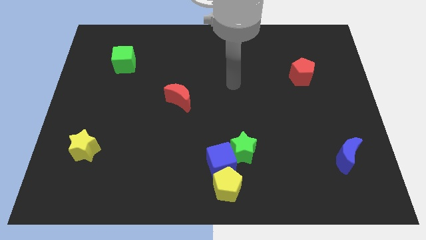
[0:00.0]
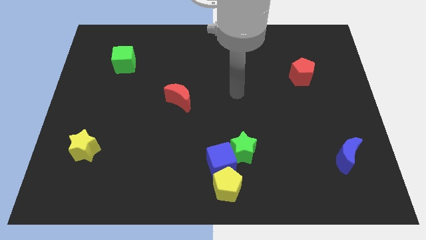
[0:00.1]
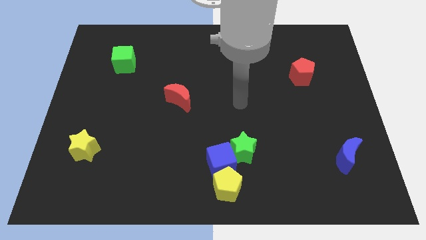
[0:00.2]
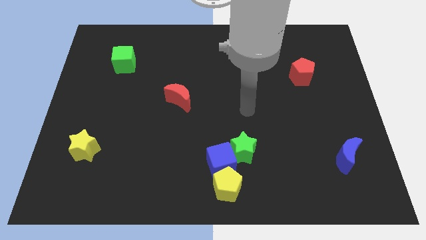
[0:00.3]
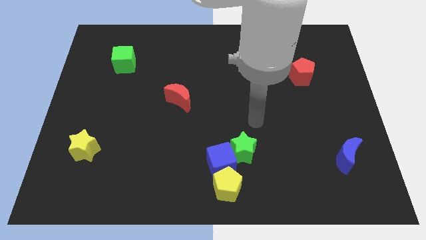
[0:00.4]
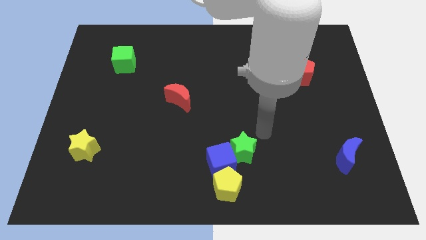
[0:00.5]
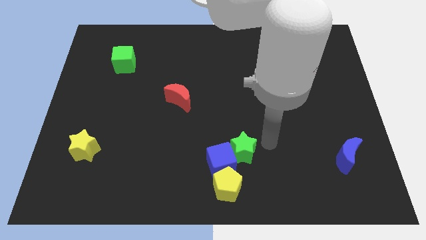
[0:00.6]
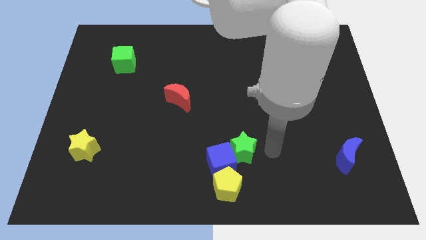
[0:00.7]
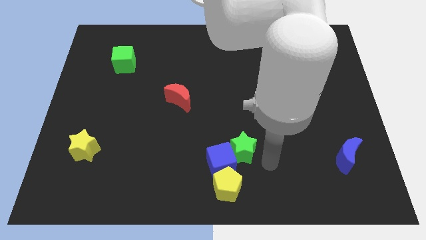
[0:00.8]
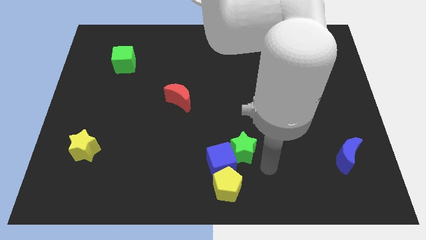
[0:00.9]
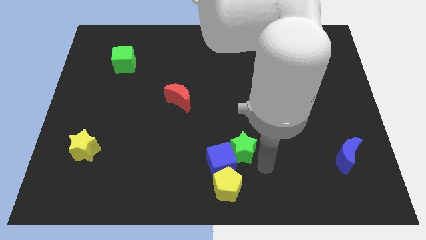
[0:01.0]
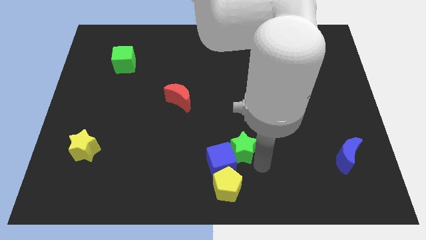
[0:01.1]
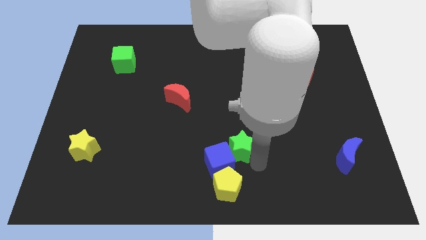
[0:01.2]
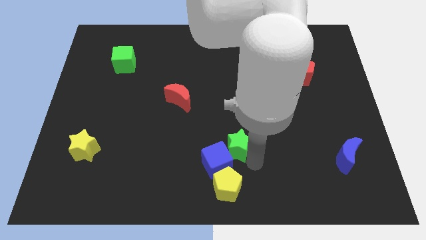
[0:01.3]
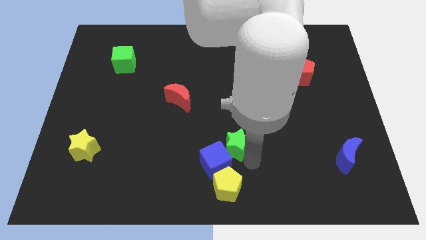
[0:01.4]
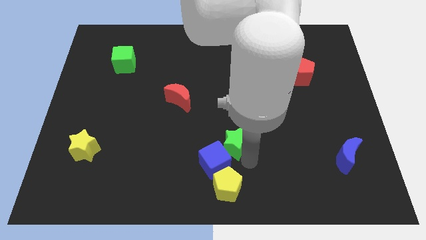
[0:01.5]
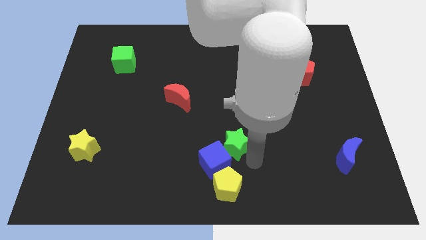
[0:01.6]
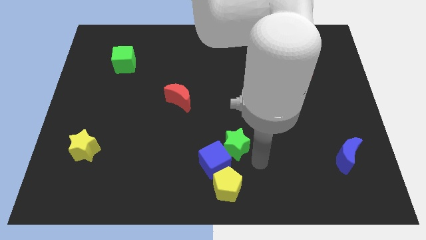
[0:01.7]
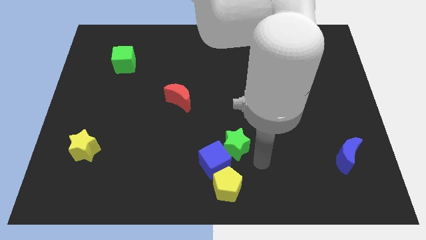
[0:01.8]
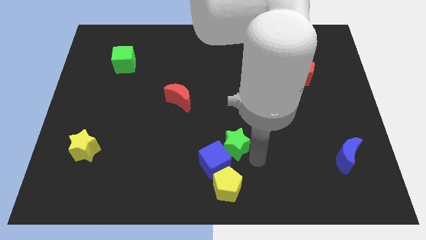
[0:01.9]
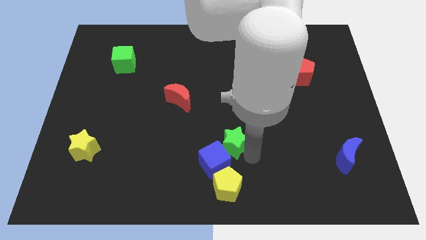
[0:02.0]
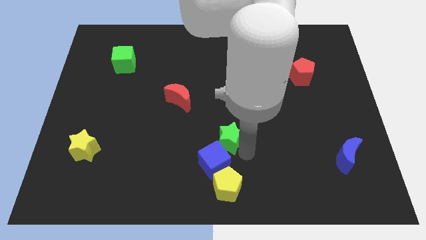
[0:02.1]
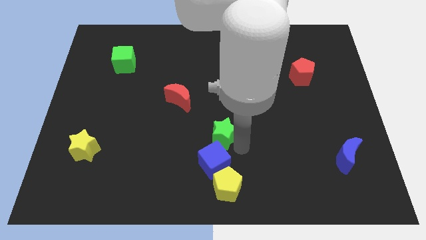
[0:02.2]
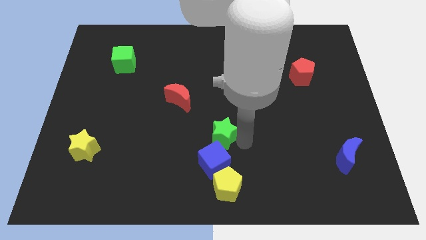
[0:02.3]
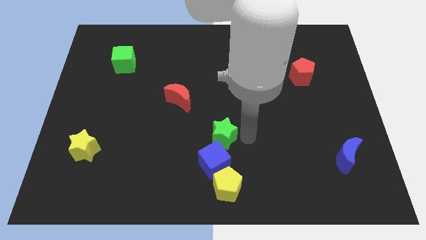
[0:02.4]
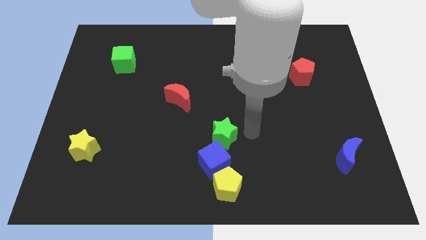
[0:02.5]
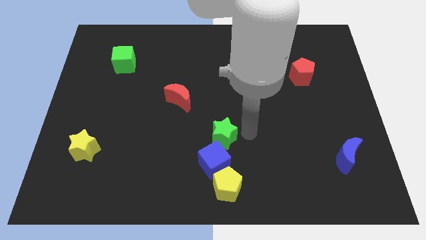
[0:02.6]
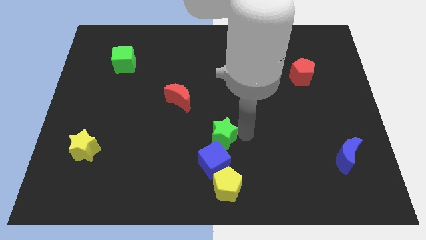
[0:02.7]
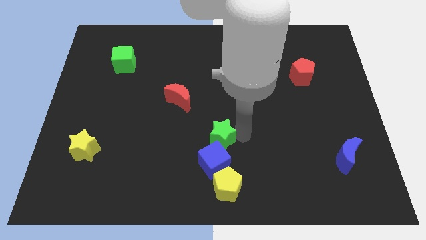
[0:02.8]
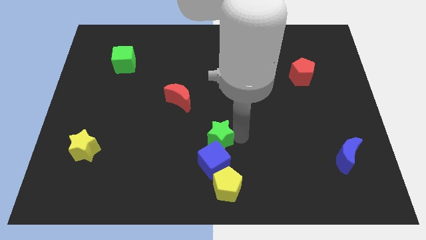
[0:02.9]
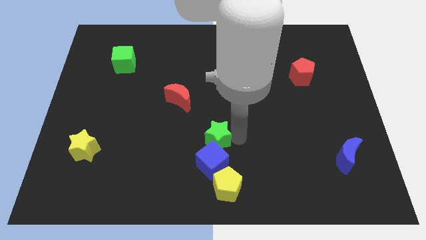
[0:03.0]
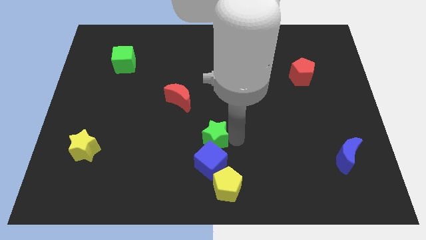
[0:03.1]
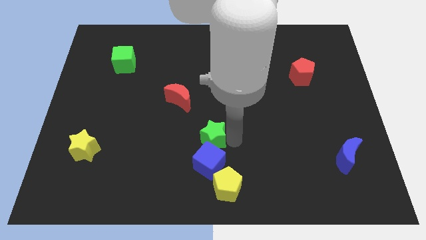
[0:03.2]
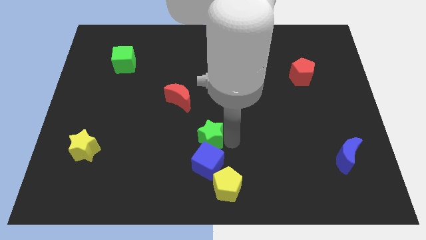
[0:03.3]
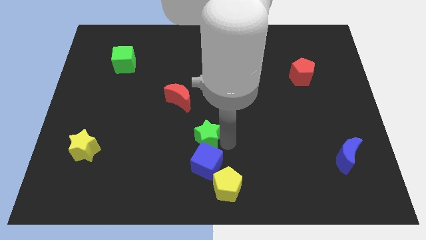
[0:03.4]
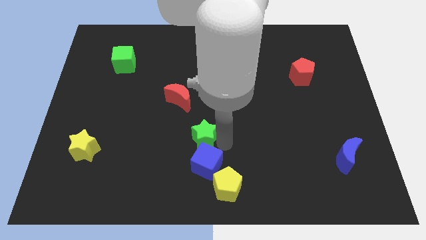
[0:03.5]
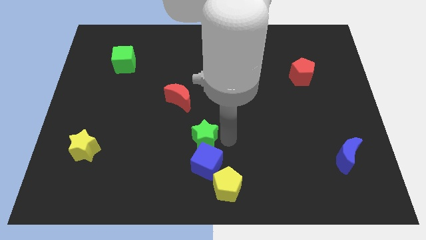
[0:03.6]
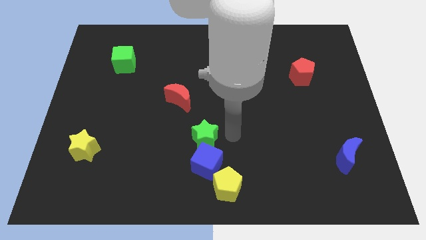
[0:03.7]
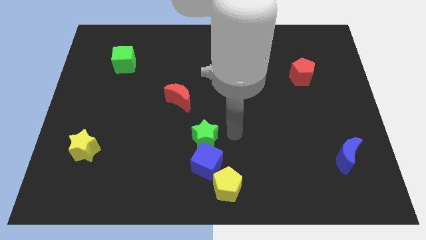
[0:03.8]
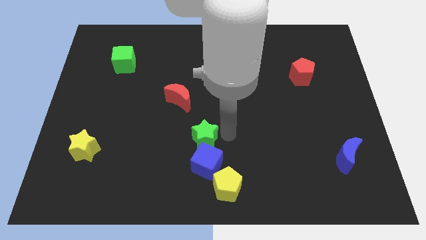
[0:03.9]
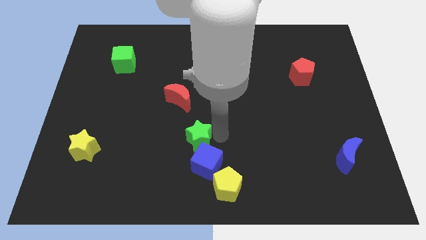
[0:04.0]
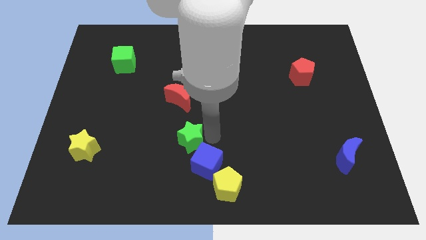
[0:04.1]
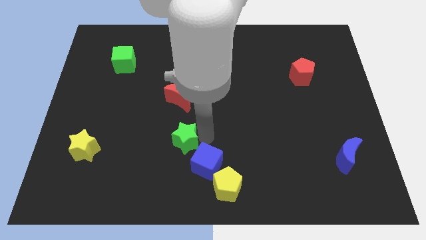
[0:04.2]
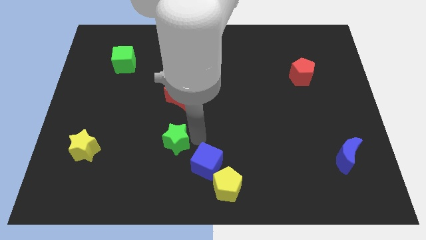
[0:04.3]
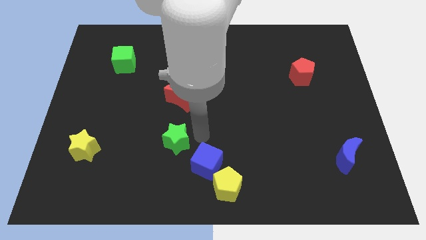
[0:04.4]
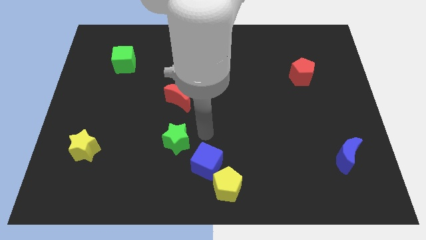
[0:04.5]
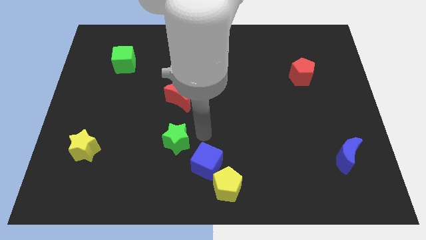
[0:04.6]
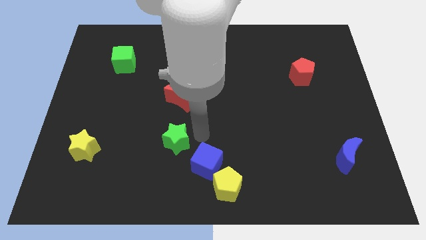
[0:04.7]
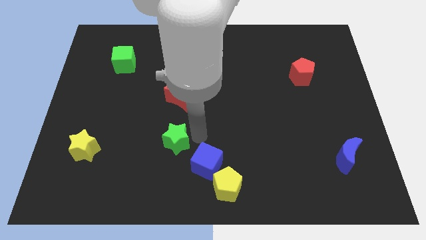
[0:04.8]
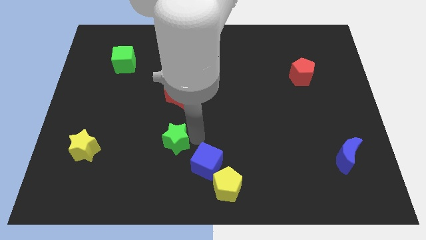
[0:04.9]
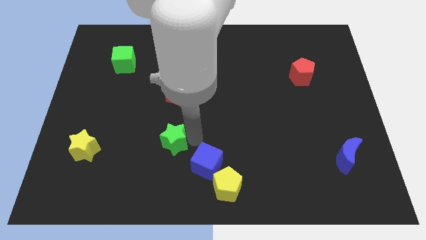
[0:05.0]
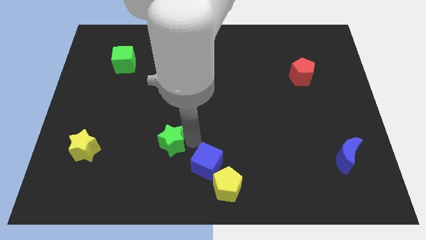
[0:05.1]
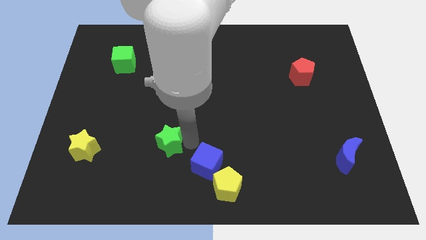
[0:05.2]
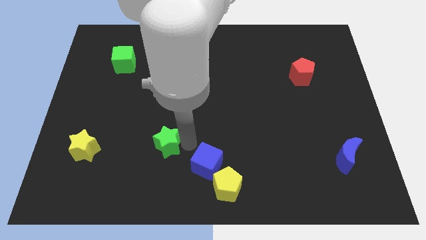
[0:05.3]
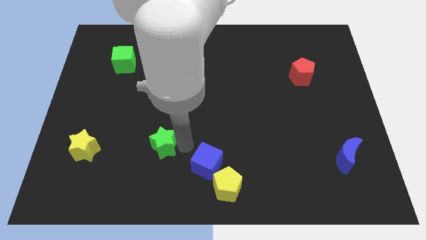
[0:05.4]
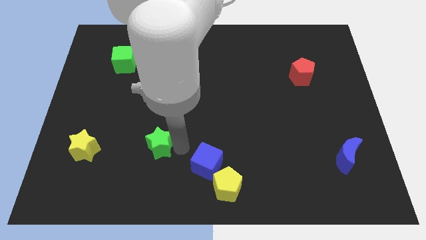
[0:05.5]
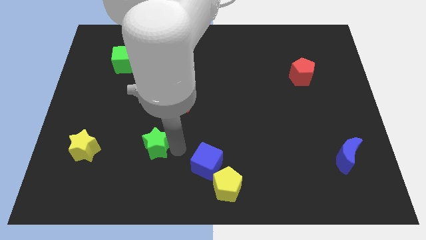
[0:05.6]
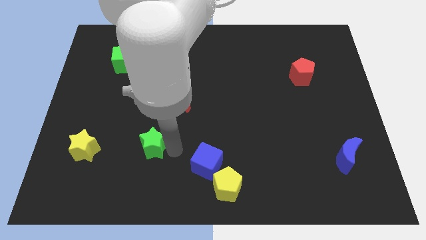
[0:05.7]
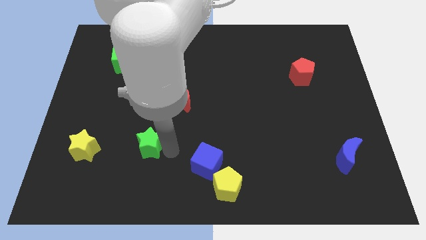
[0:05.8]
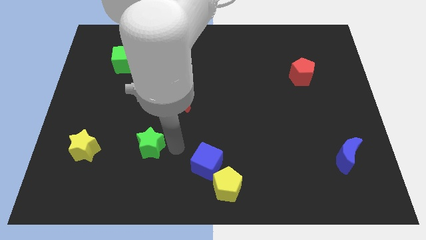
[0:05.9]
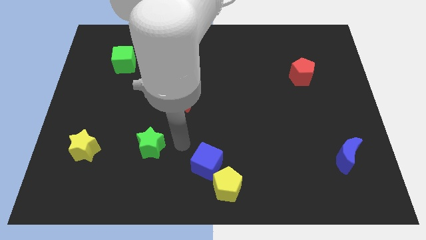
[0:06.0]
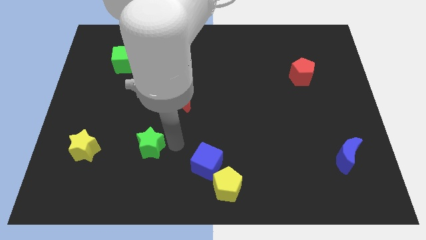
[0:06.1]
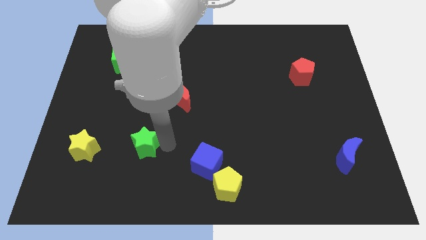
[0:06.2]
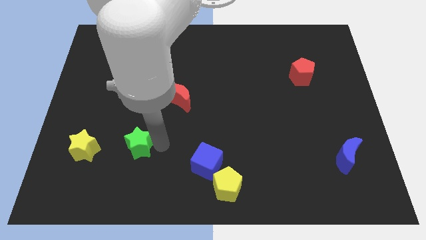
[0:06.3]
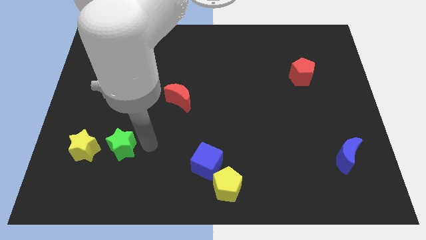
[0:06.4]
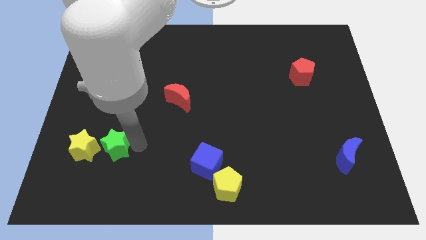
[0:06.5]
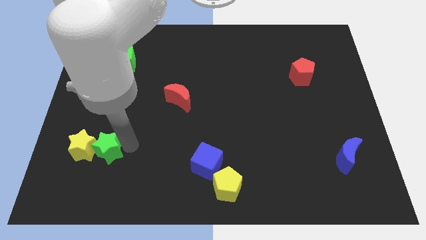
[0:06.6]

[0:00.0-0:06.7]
slide the green star close to the yellow star

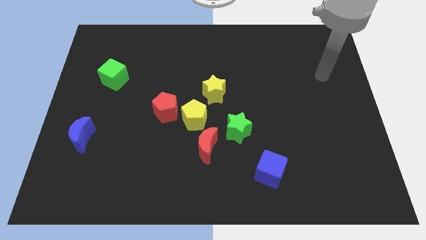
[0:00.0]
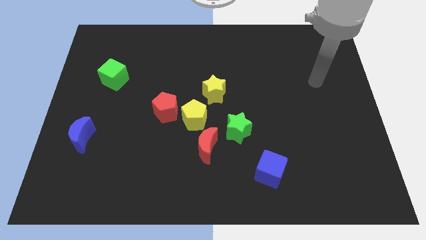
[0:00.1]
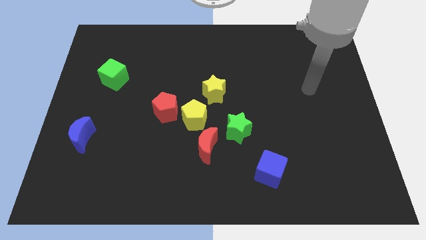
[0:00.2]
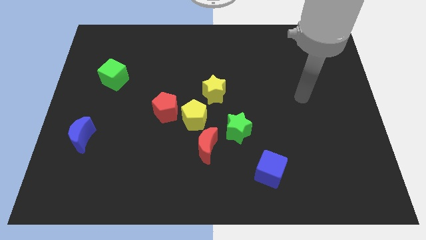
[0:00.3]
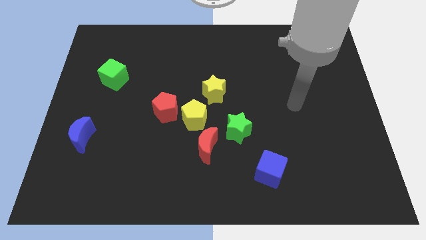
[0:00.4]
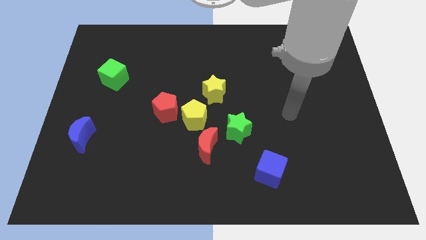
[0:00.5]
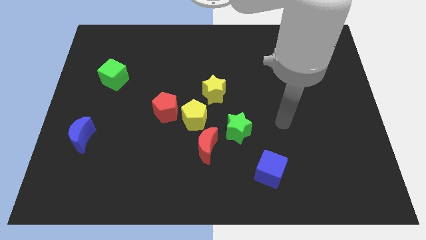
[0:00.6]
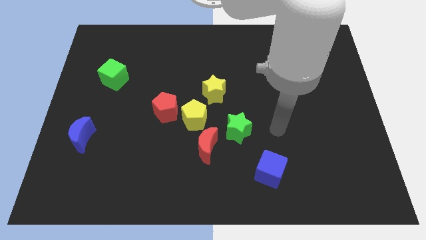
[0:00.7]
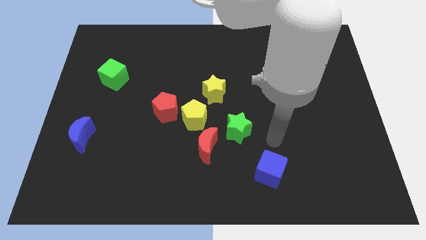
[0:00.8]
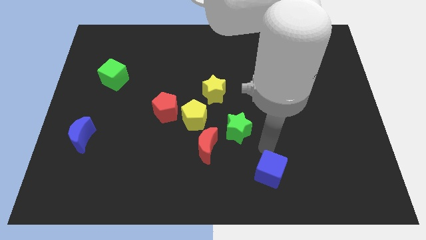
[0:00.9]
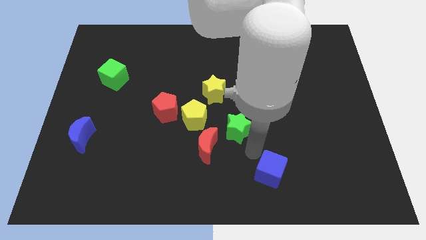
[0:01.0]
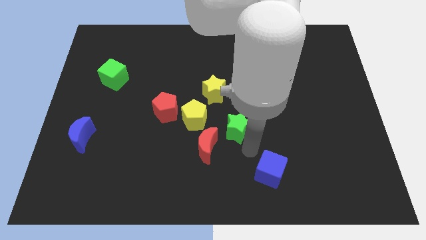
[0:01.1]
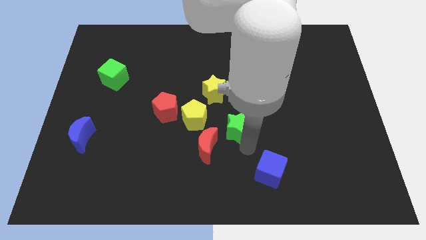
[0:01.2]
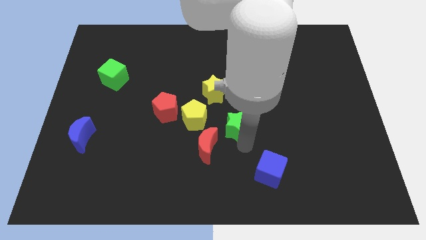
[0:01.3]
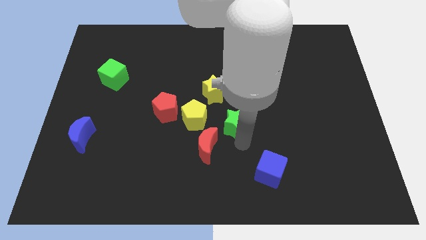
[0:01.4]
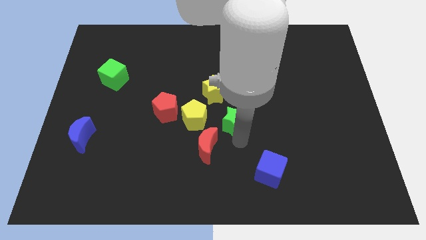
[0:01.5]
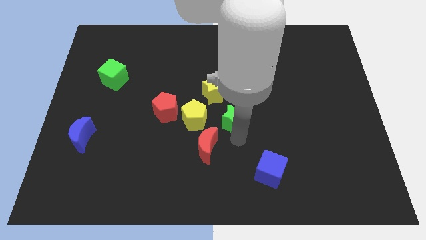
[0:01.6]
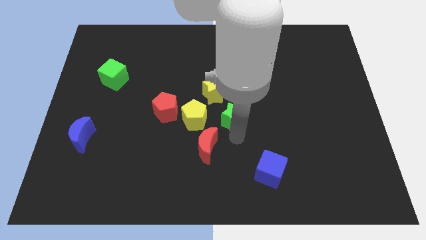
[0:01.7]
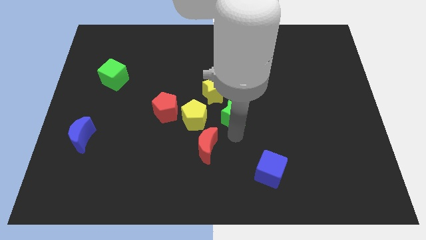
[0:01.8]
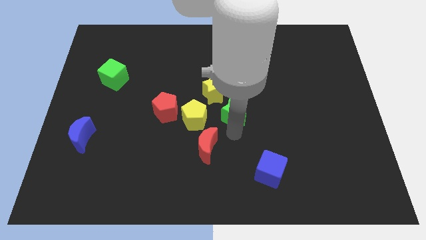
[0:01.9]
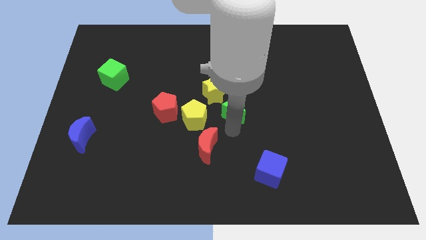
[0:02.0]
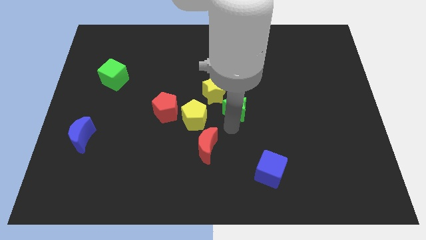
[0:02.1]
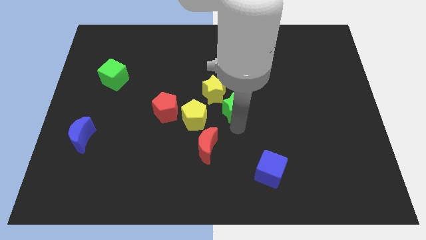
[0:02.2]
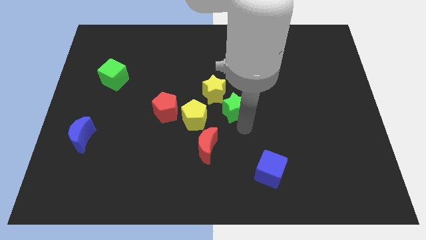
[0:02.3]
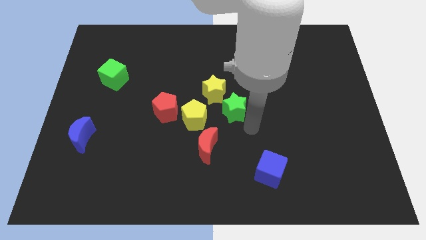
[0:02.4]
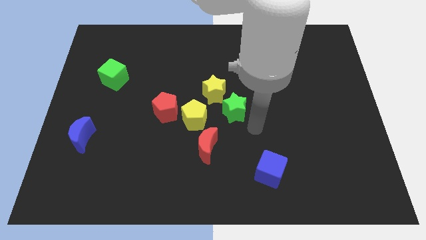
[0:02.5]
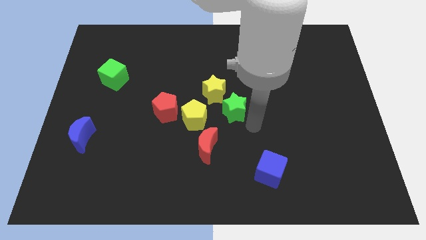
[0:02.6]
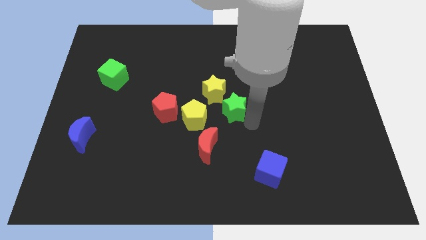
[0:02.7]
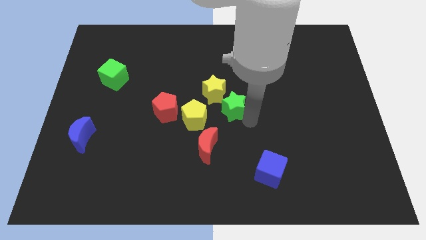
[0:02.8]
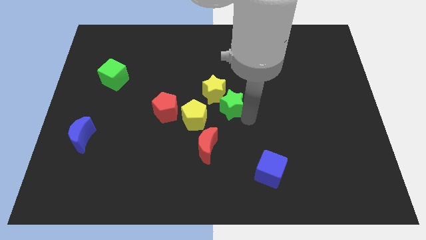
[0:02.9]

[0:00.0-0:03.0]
push the green star next to the yellow star
